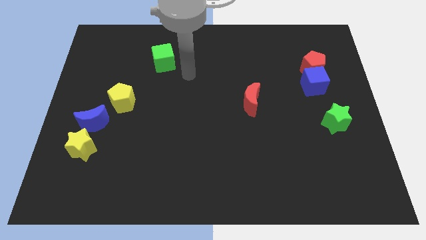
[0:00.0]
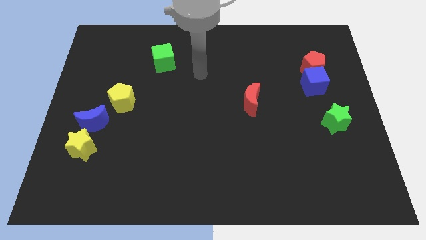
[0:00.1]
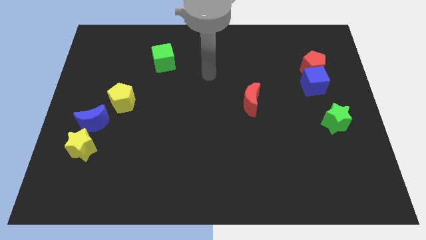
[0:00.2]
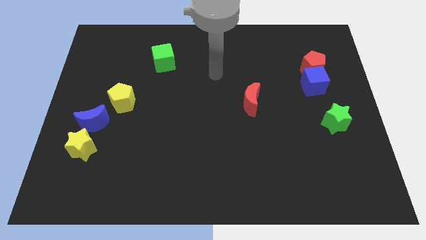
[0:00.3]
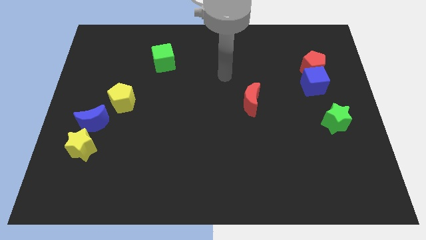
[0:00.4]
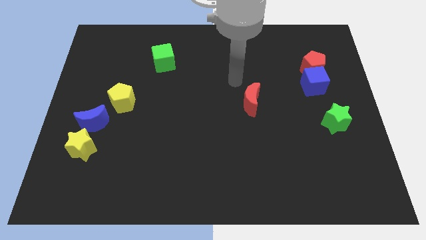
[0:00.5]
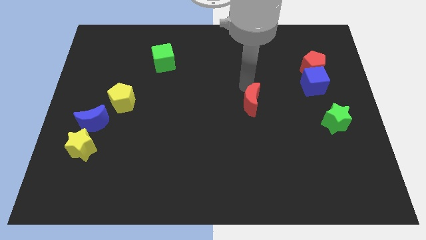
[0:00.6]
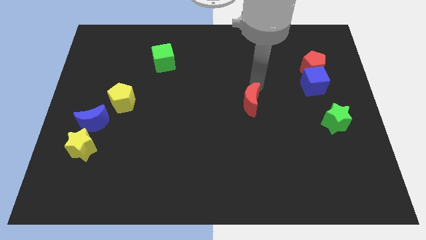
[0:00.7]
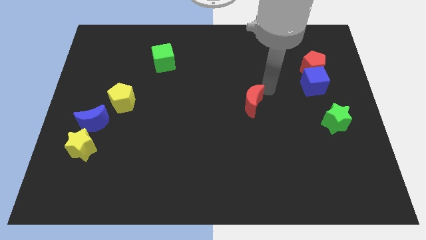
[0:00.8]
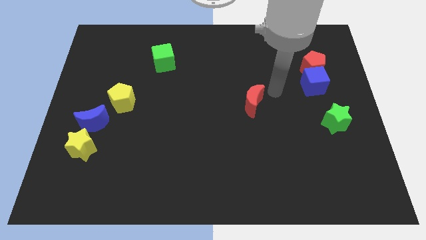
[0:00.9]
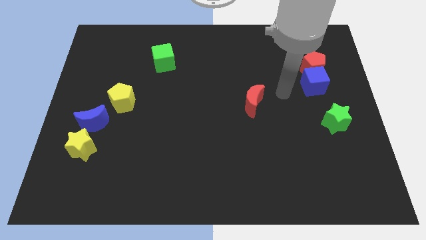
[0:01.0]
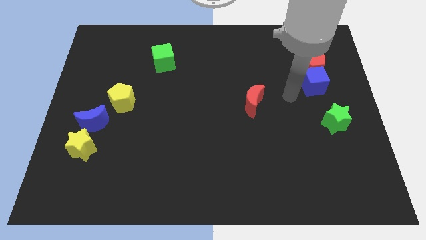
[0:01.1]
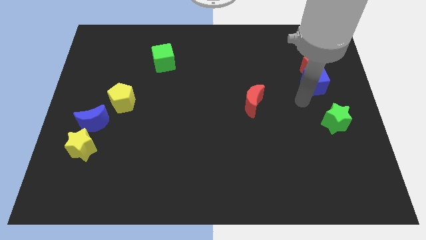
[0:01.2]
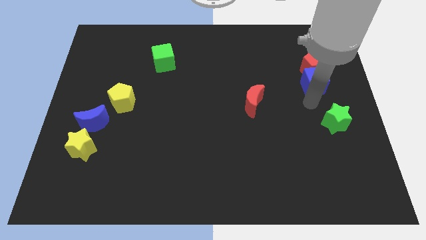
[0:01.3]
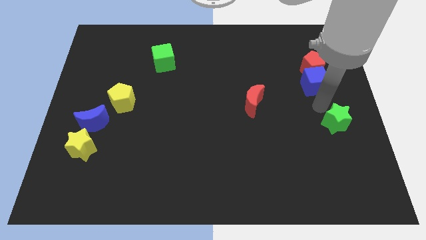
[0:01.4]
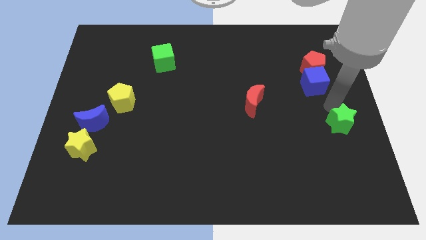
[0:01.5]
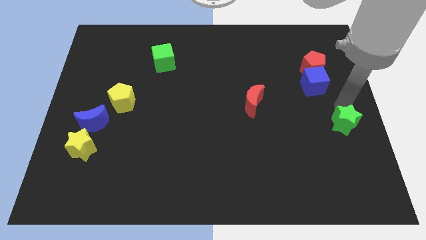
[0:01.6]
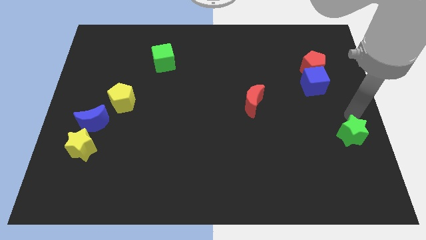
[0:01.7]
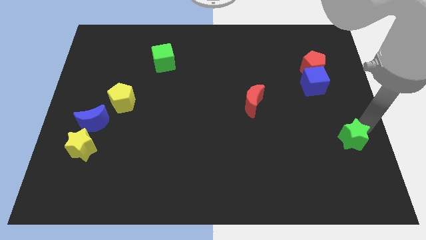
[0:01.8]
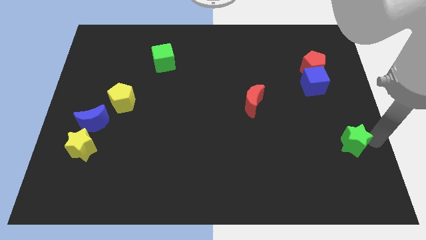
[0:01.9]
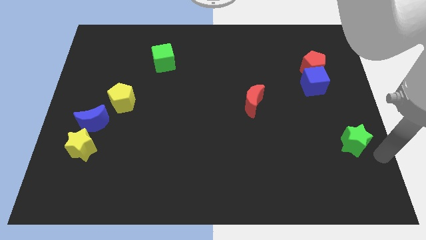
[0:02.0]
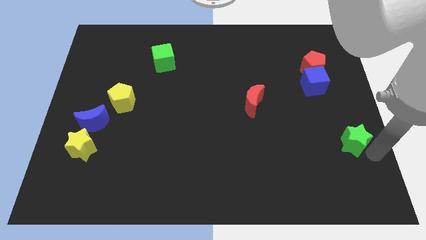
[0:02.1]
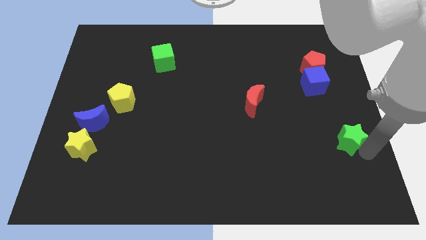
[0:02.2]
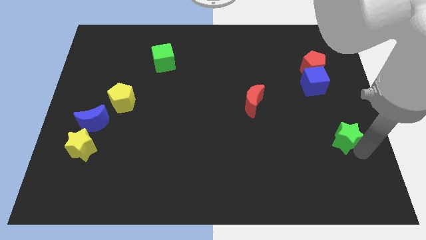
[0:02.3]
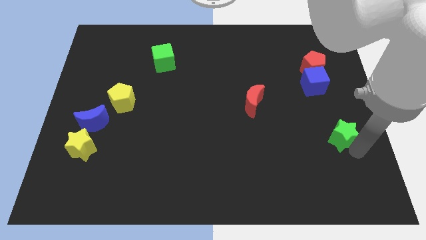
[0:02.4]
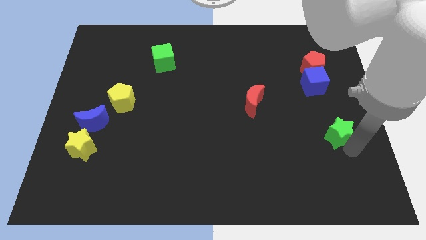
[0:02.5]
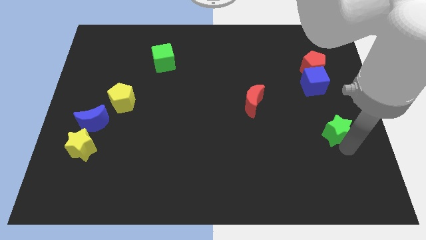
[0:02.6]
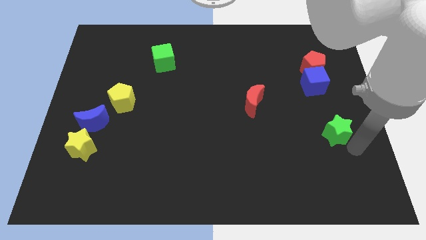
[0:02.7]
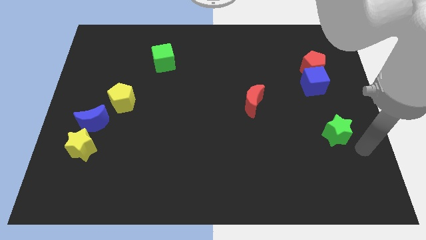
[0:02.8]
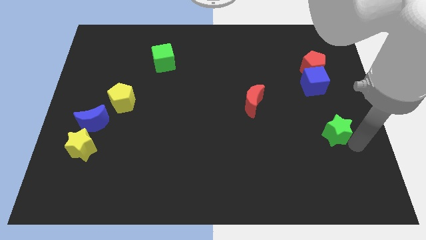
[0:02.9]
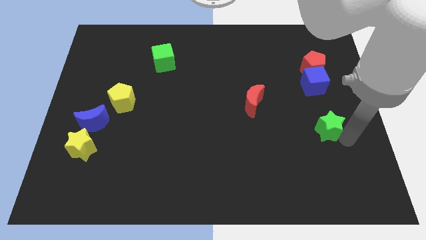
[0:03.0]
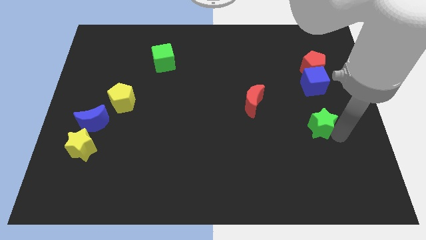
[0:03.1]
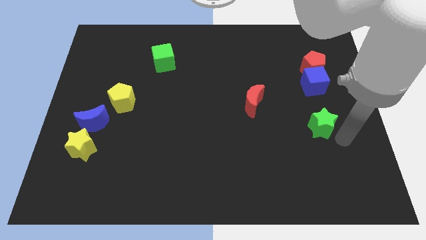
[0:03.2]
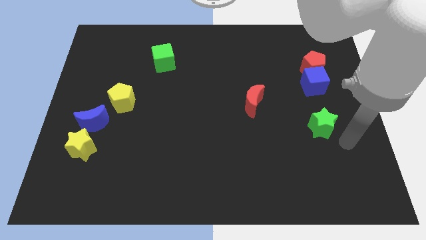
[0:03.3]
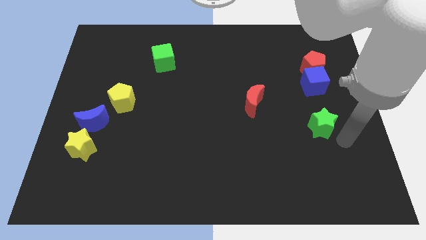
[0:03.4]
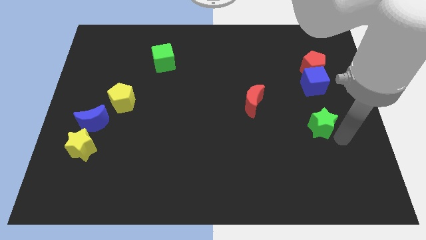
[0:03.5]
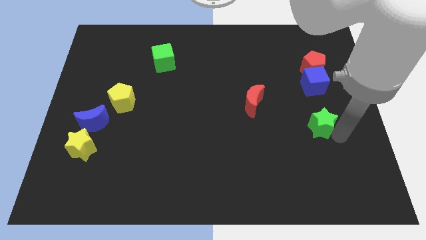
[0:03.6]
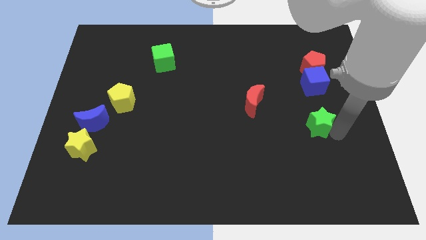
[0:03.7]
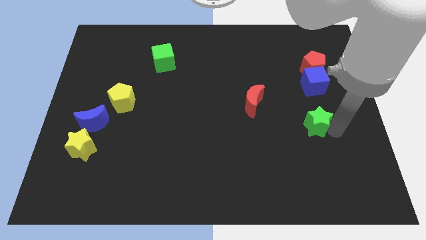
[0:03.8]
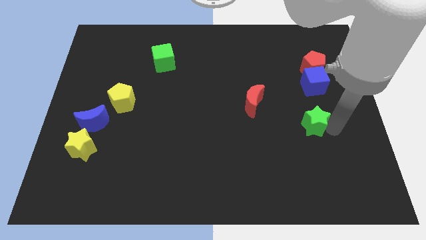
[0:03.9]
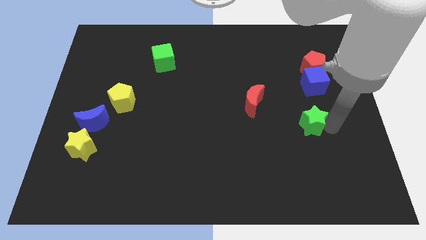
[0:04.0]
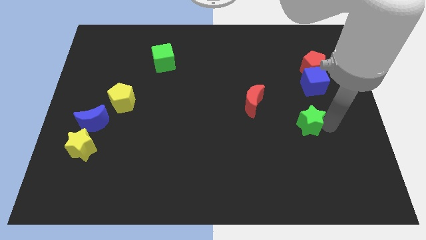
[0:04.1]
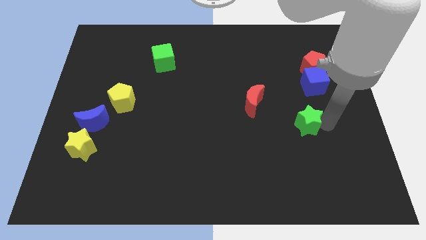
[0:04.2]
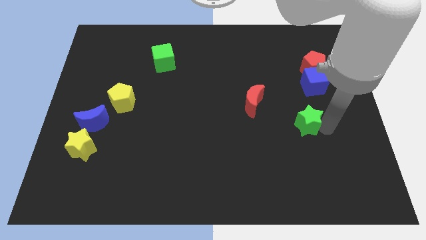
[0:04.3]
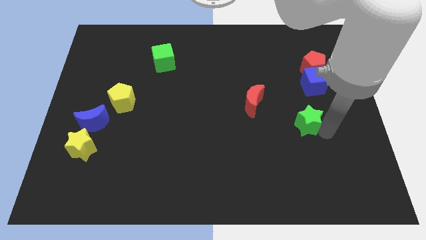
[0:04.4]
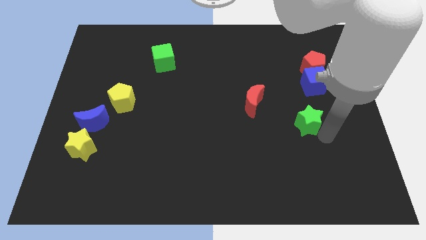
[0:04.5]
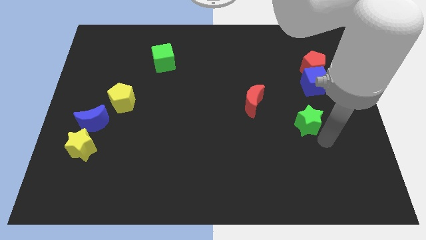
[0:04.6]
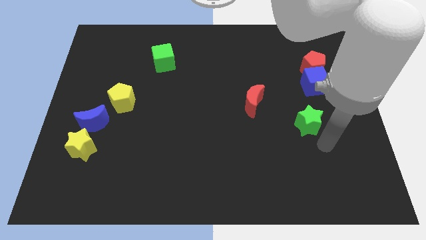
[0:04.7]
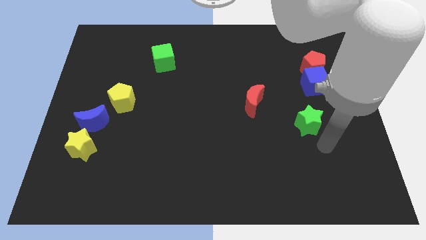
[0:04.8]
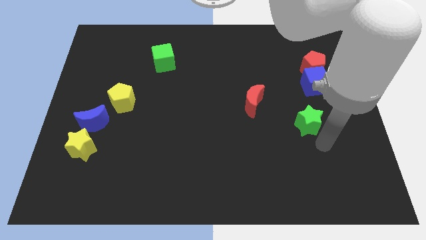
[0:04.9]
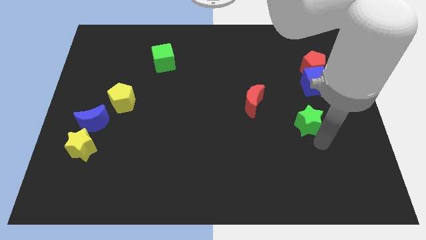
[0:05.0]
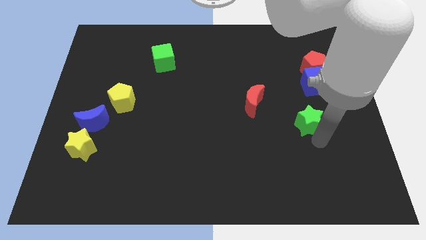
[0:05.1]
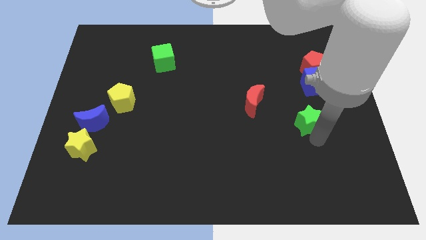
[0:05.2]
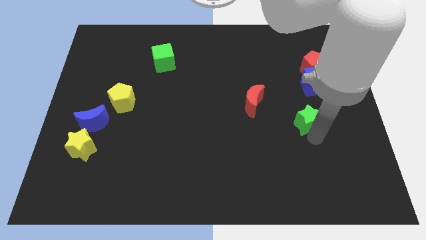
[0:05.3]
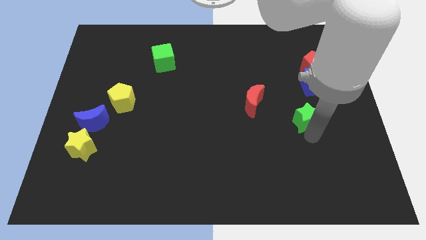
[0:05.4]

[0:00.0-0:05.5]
slide the green star a little bit to the left

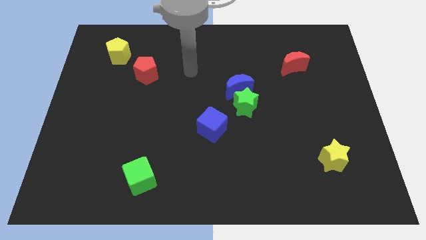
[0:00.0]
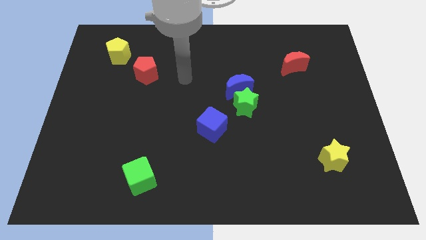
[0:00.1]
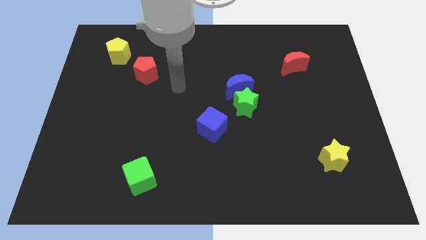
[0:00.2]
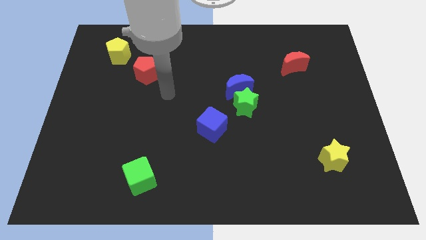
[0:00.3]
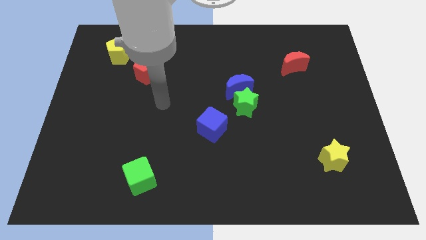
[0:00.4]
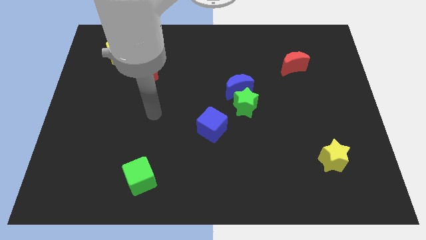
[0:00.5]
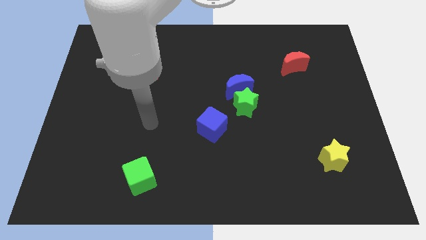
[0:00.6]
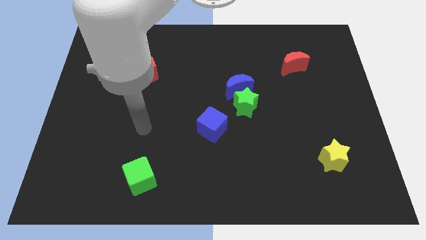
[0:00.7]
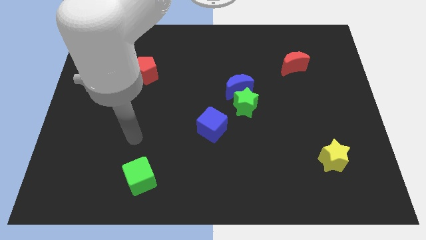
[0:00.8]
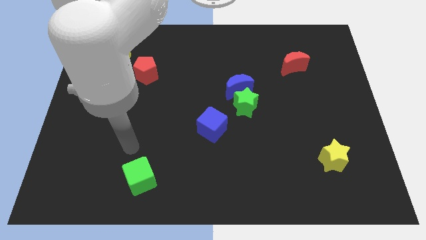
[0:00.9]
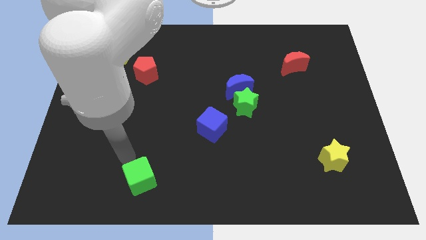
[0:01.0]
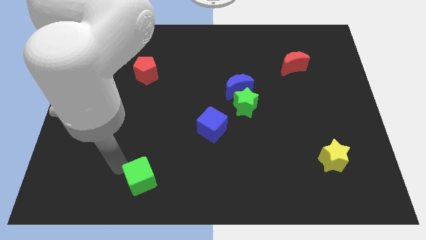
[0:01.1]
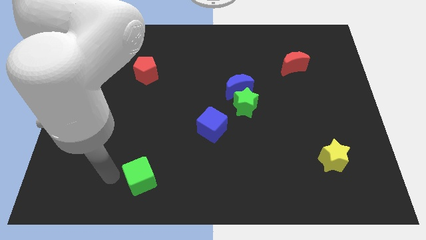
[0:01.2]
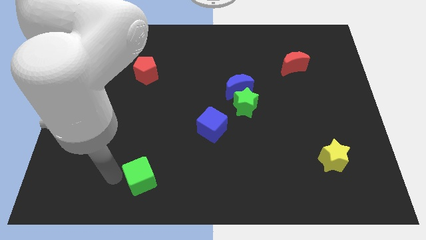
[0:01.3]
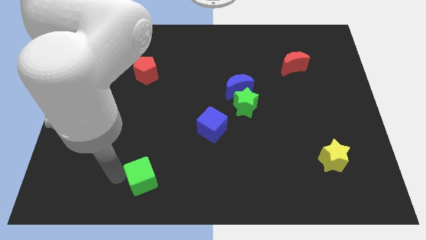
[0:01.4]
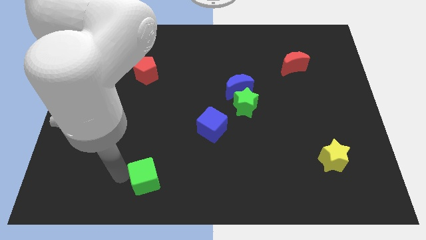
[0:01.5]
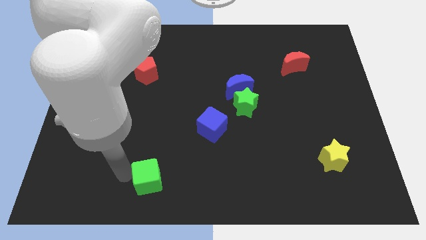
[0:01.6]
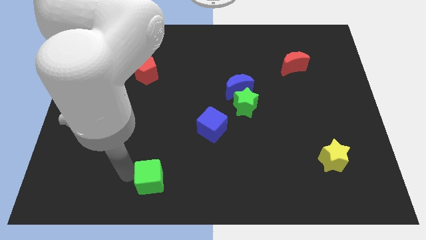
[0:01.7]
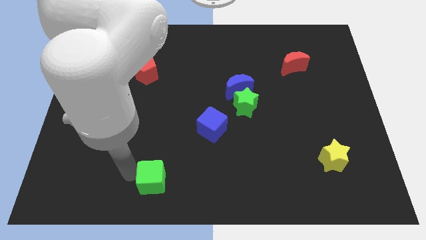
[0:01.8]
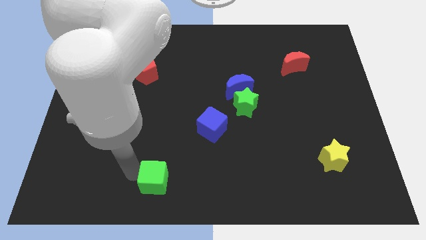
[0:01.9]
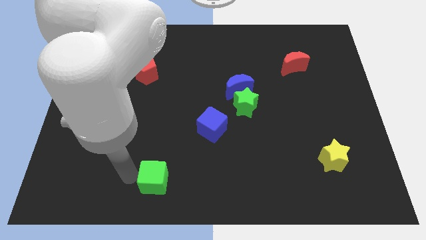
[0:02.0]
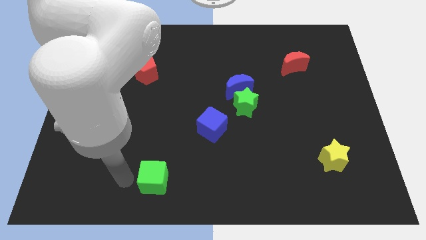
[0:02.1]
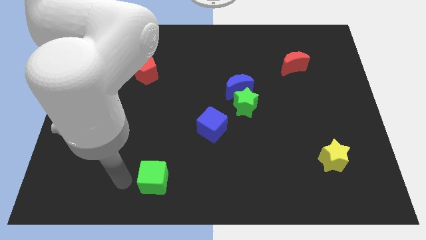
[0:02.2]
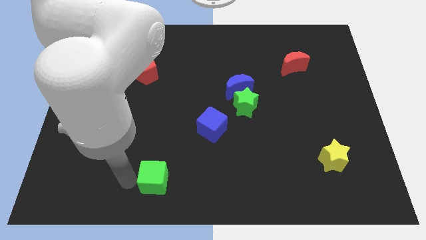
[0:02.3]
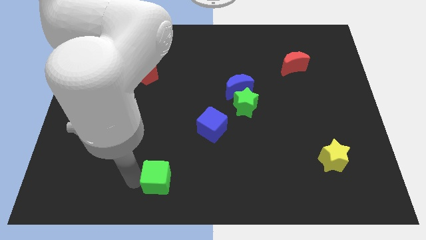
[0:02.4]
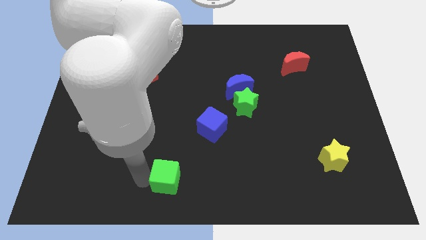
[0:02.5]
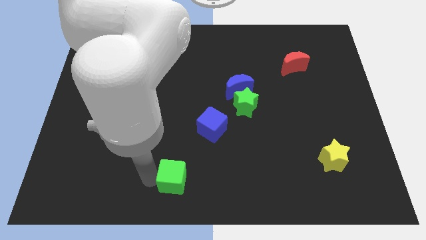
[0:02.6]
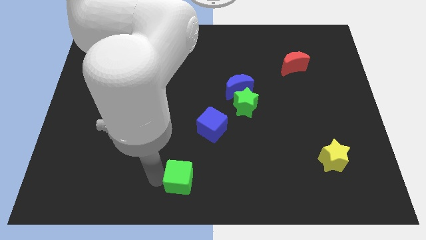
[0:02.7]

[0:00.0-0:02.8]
slightly move the green cube to the right
